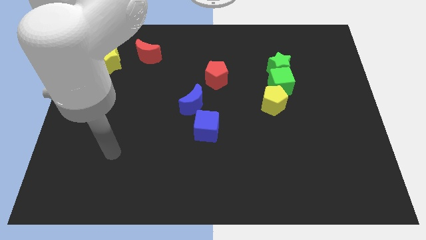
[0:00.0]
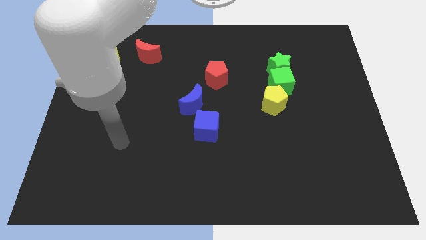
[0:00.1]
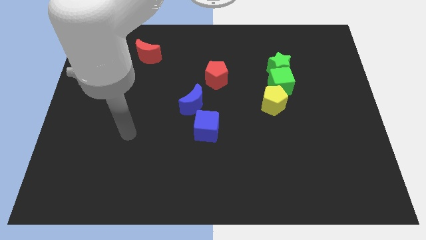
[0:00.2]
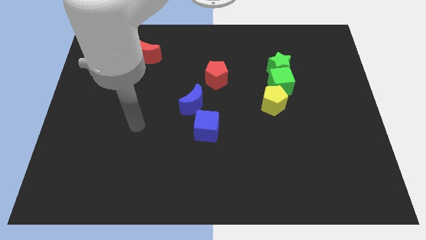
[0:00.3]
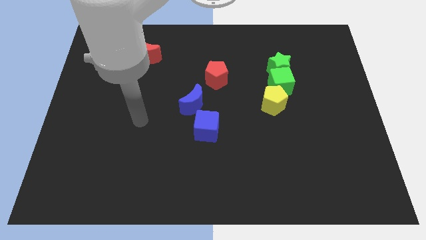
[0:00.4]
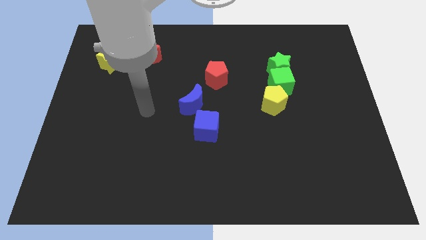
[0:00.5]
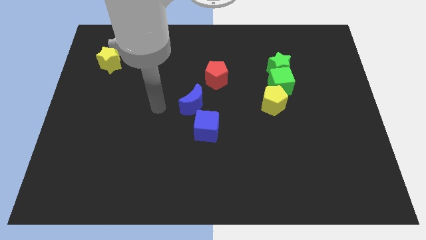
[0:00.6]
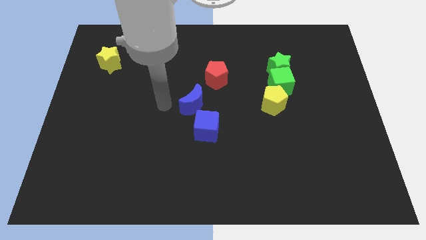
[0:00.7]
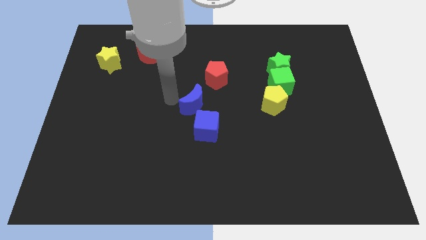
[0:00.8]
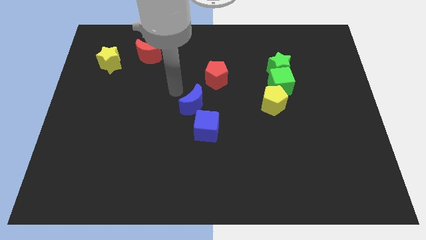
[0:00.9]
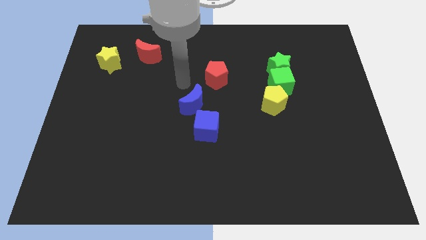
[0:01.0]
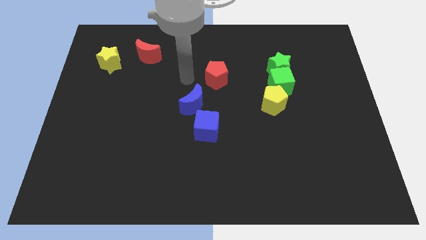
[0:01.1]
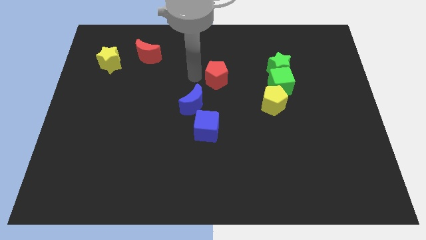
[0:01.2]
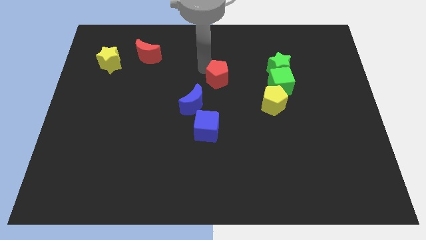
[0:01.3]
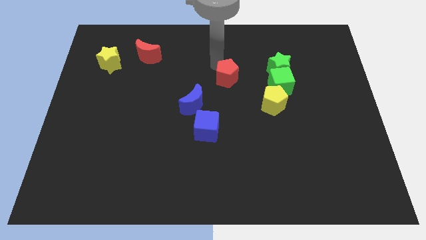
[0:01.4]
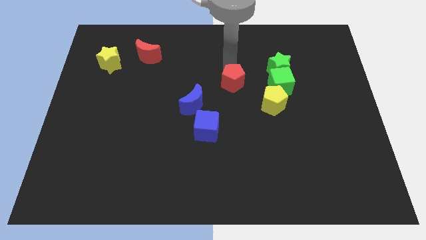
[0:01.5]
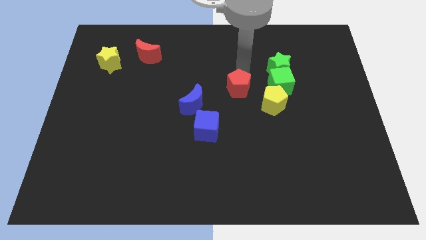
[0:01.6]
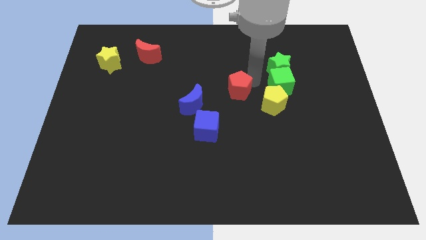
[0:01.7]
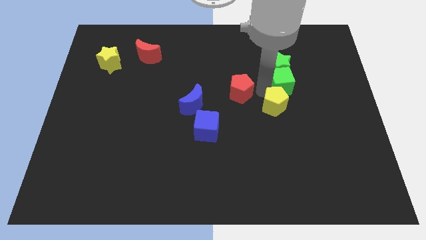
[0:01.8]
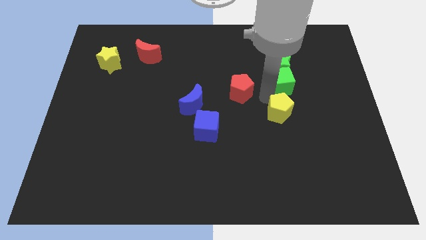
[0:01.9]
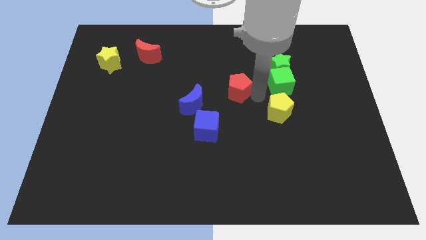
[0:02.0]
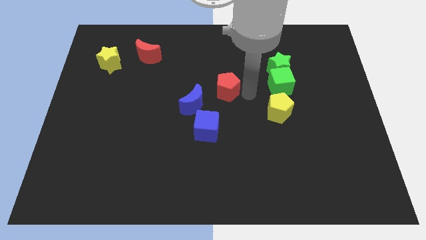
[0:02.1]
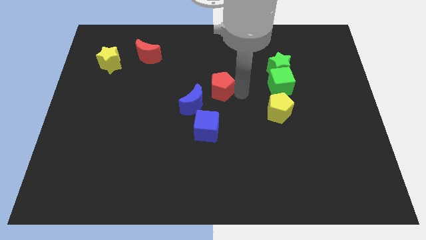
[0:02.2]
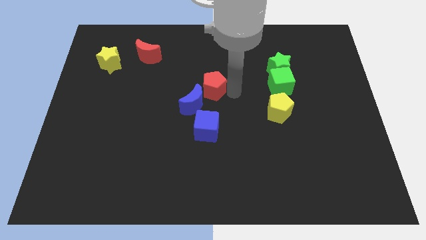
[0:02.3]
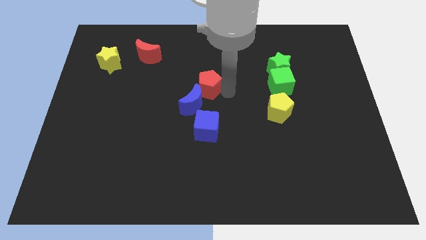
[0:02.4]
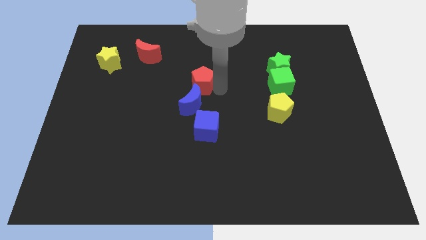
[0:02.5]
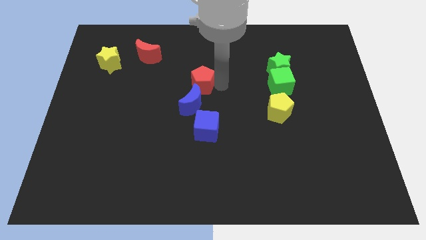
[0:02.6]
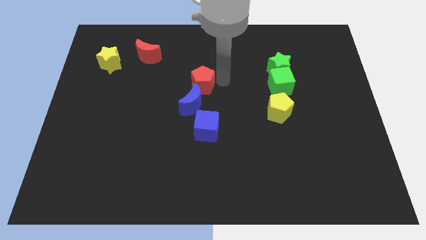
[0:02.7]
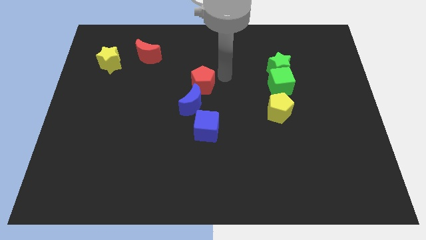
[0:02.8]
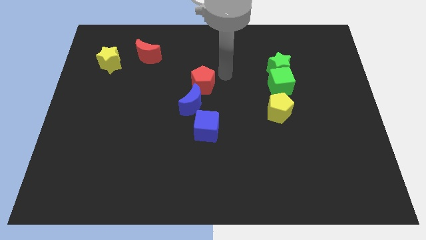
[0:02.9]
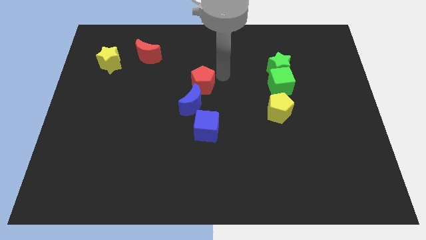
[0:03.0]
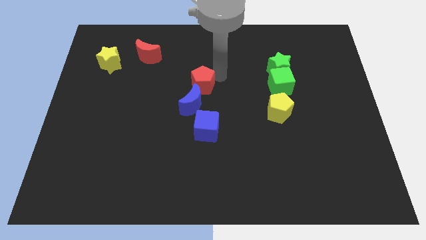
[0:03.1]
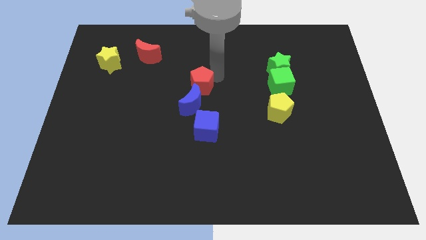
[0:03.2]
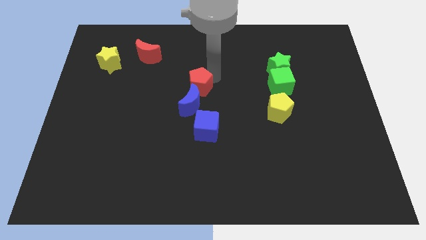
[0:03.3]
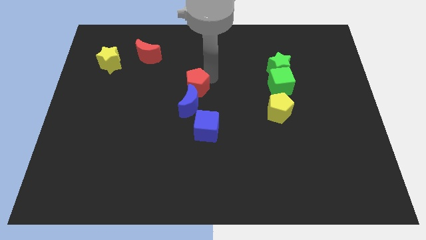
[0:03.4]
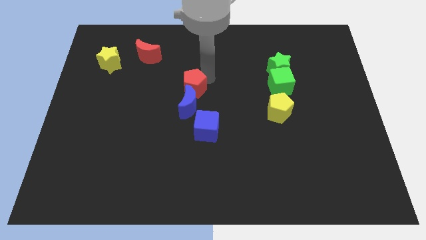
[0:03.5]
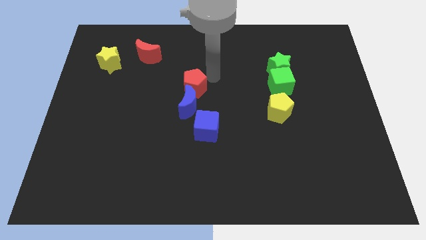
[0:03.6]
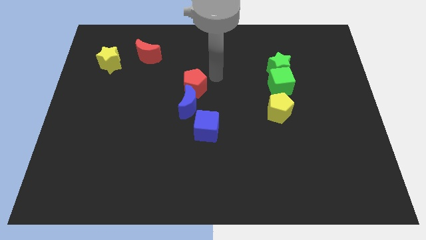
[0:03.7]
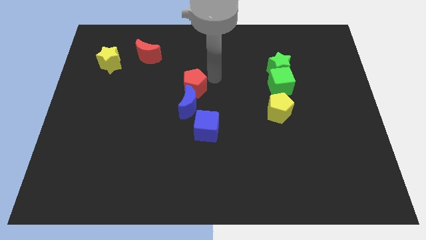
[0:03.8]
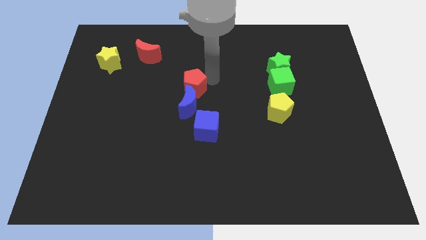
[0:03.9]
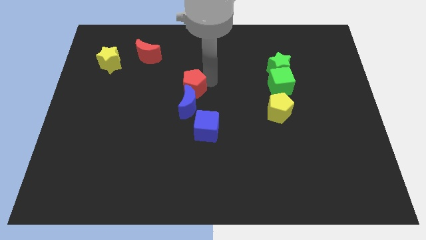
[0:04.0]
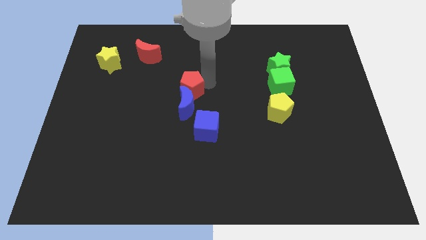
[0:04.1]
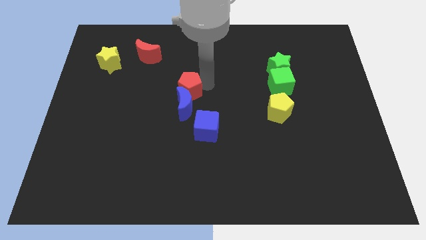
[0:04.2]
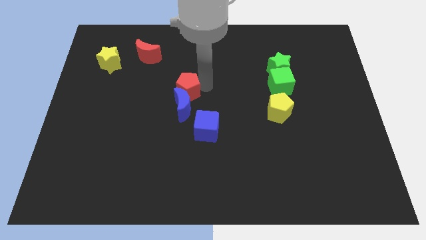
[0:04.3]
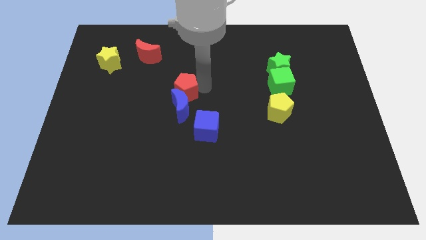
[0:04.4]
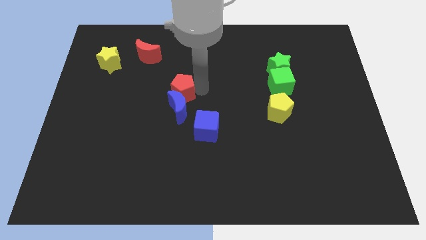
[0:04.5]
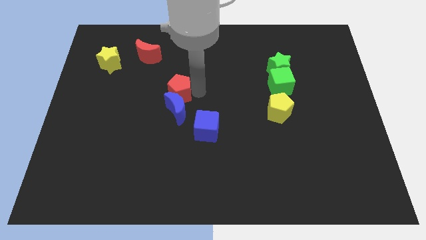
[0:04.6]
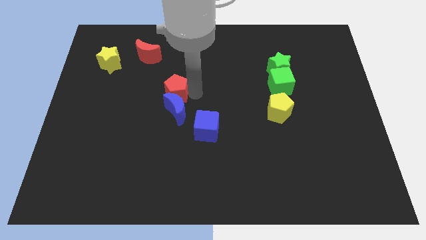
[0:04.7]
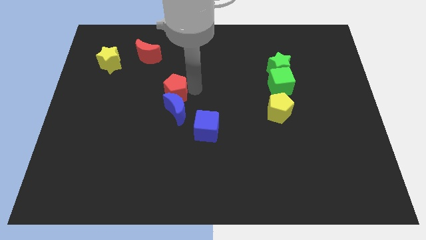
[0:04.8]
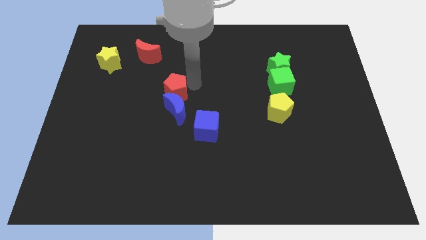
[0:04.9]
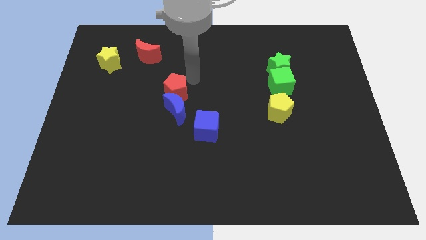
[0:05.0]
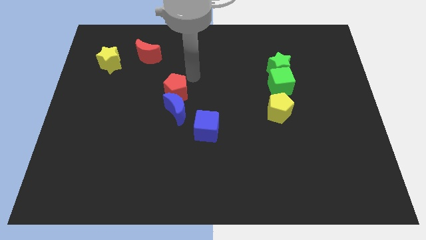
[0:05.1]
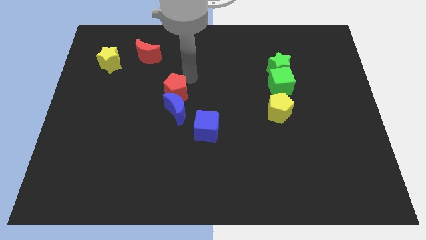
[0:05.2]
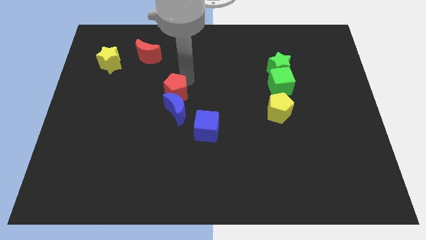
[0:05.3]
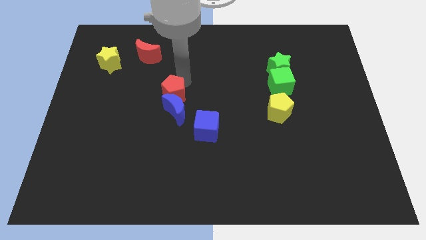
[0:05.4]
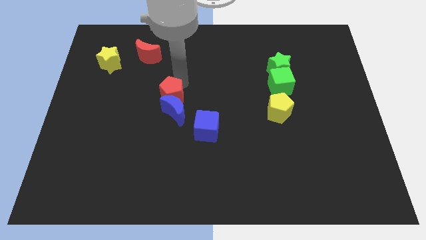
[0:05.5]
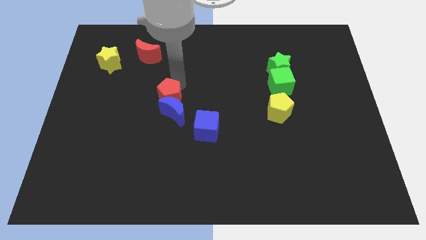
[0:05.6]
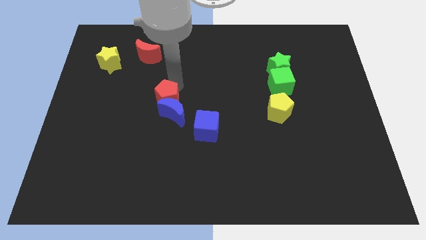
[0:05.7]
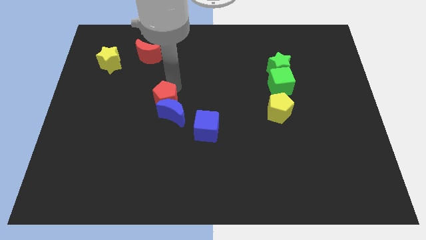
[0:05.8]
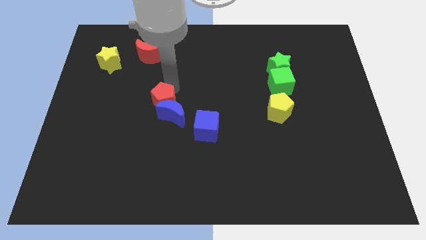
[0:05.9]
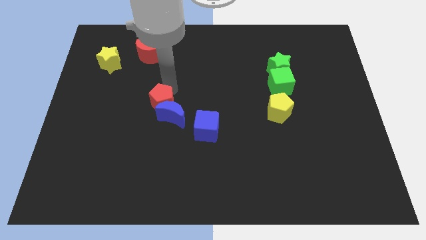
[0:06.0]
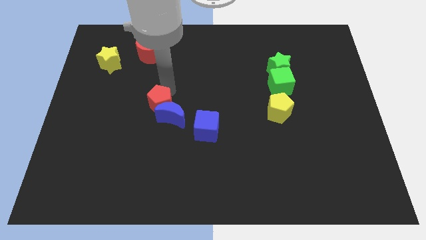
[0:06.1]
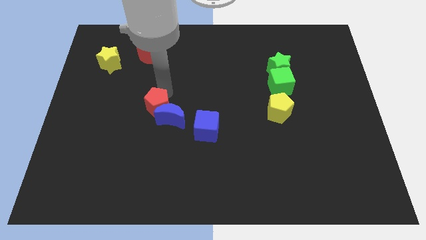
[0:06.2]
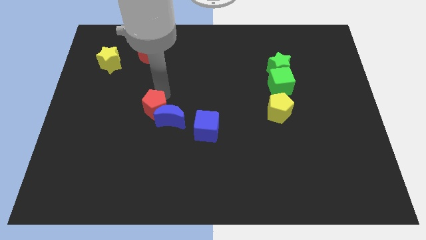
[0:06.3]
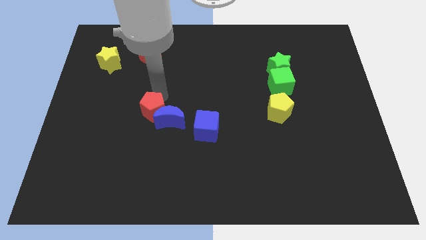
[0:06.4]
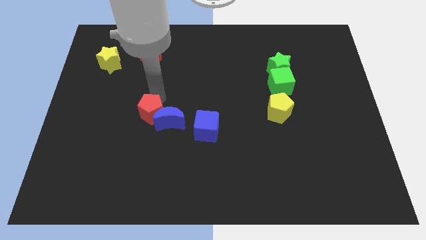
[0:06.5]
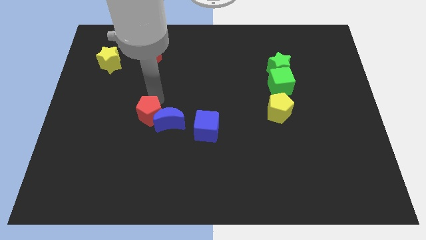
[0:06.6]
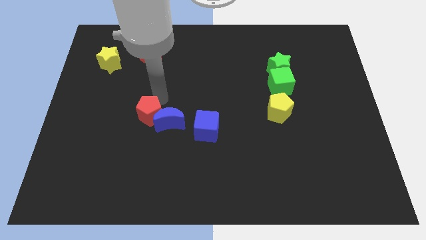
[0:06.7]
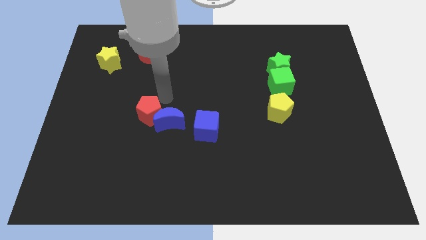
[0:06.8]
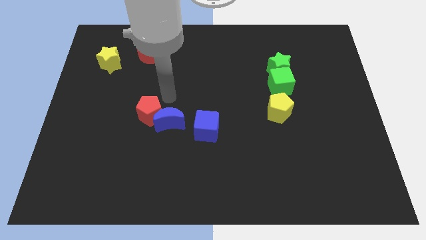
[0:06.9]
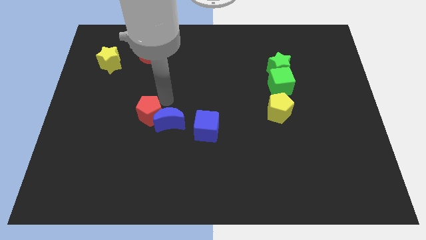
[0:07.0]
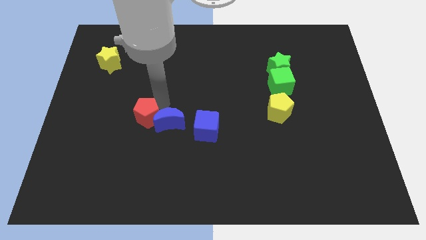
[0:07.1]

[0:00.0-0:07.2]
move the red pentagon downwards and then to the left

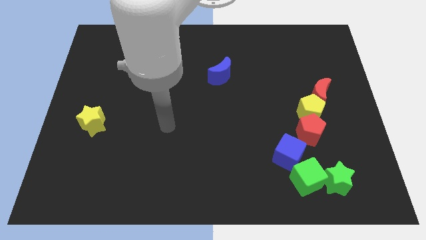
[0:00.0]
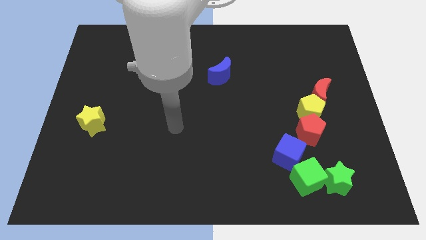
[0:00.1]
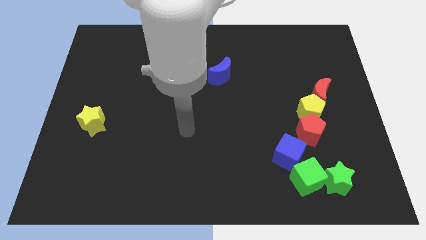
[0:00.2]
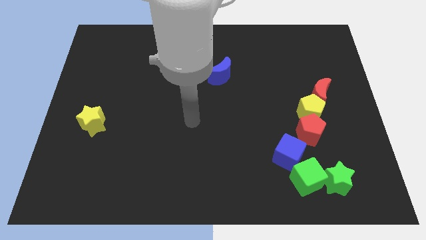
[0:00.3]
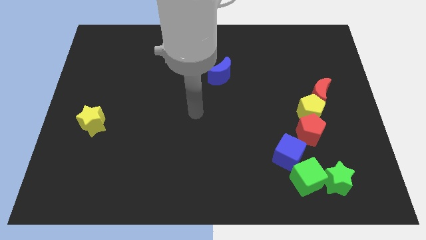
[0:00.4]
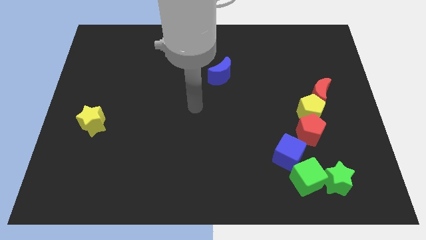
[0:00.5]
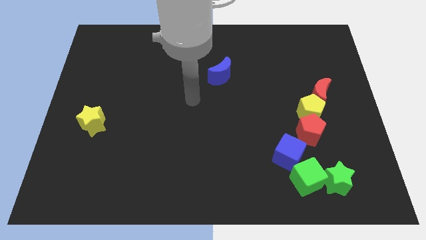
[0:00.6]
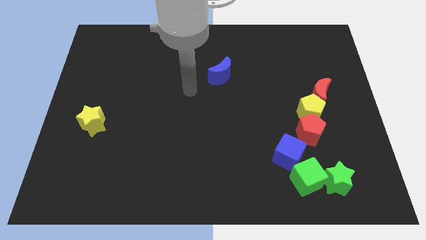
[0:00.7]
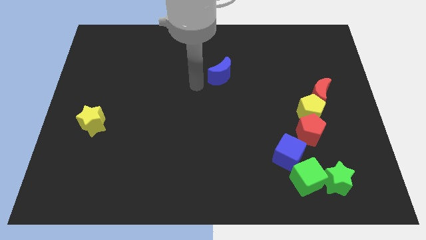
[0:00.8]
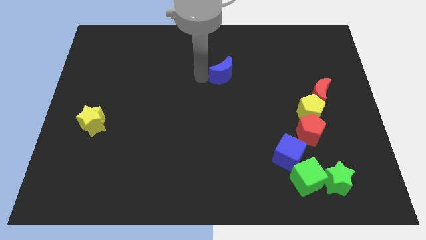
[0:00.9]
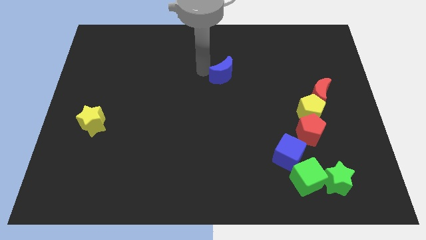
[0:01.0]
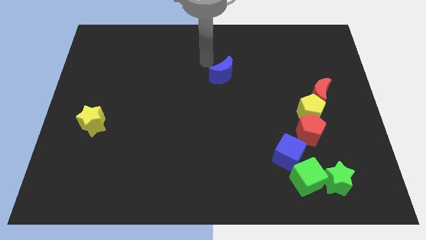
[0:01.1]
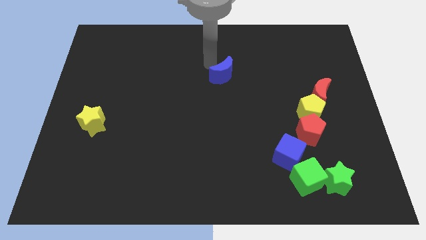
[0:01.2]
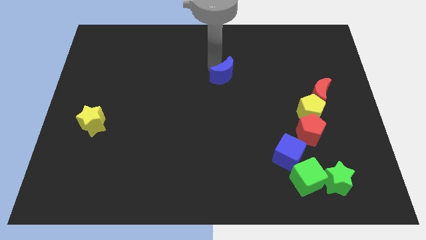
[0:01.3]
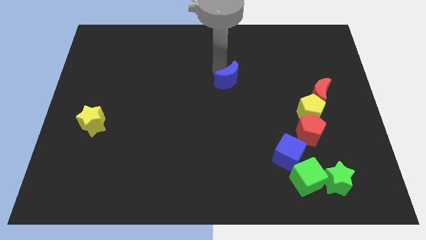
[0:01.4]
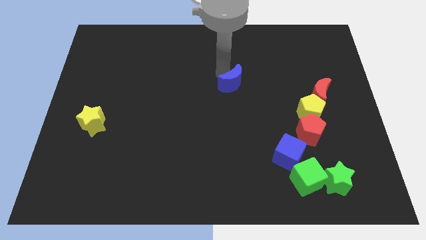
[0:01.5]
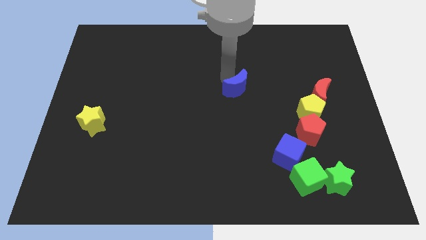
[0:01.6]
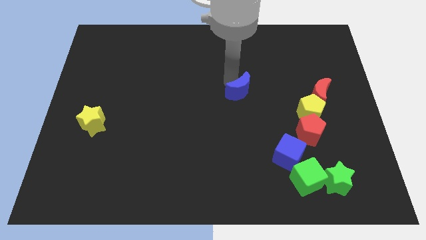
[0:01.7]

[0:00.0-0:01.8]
slightly push the blue moon downwards and then right
